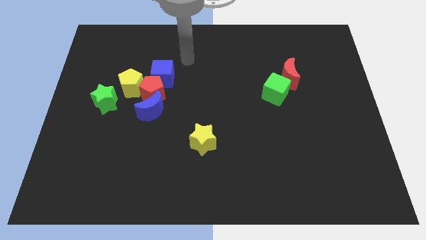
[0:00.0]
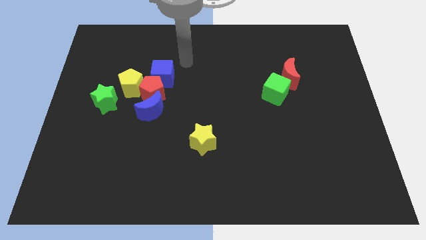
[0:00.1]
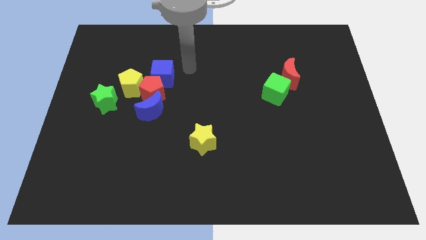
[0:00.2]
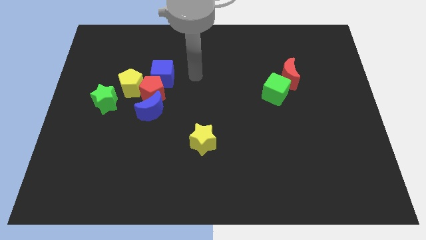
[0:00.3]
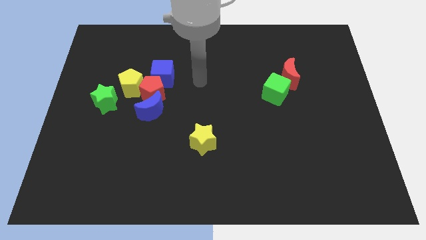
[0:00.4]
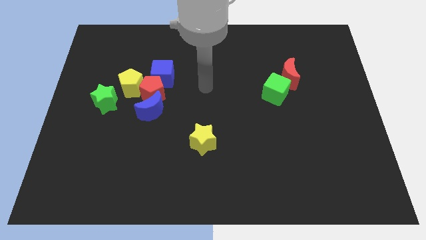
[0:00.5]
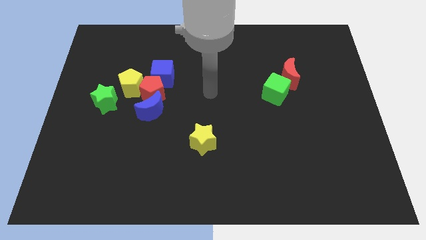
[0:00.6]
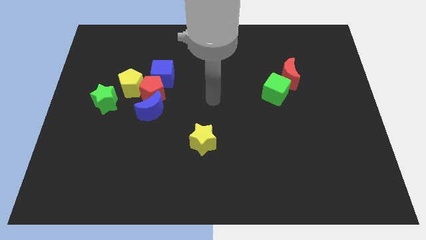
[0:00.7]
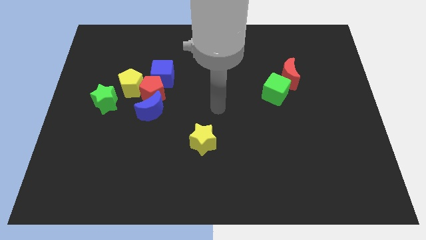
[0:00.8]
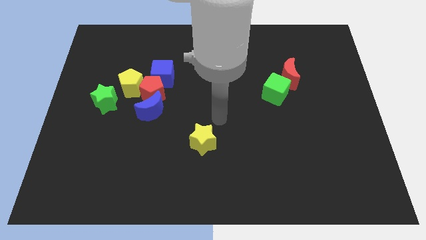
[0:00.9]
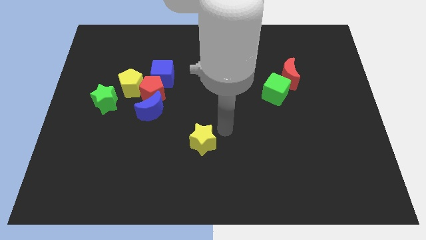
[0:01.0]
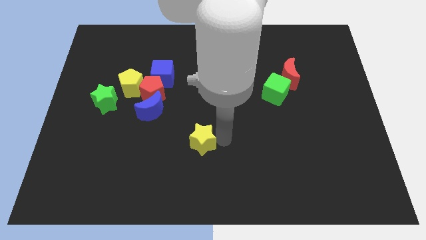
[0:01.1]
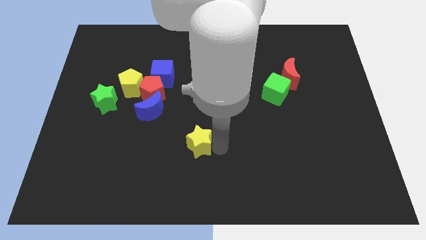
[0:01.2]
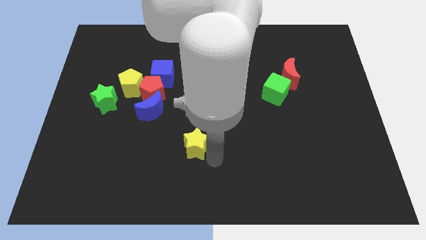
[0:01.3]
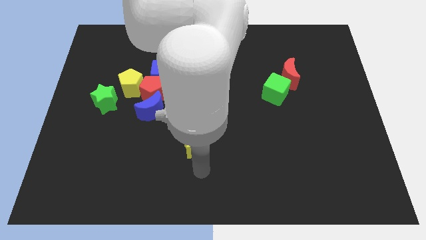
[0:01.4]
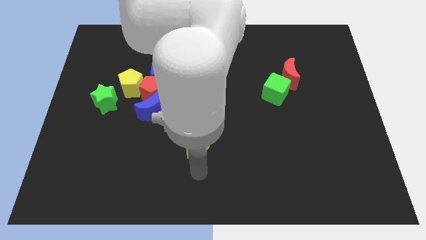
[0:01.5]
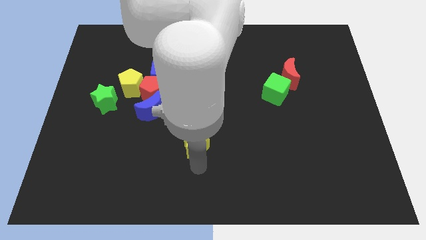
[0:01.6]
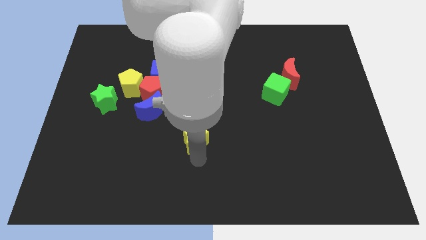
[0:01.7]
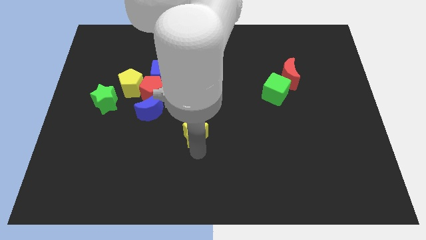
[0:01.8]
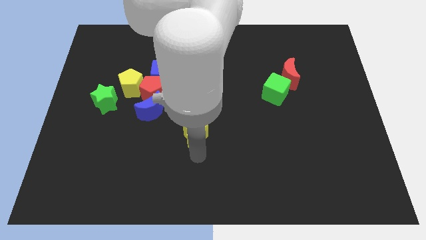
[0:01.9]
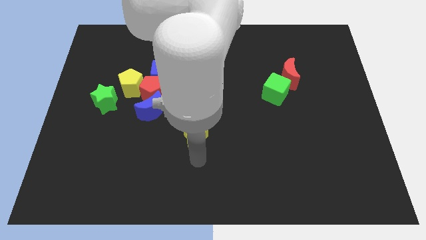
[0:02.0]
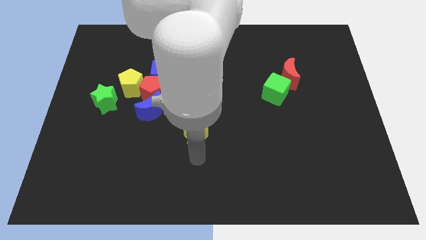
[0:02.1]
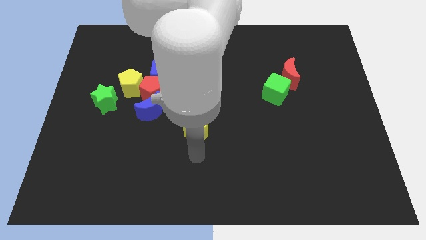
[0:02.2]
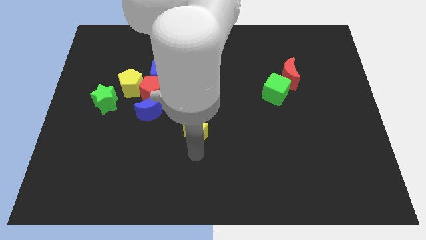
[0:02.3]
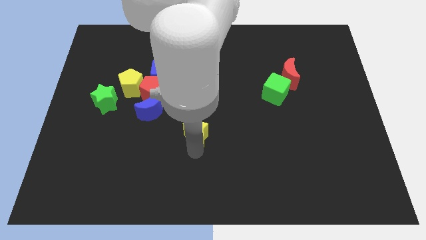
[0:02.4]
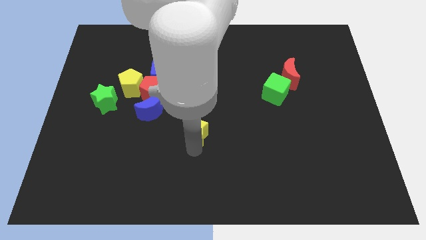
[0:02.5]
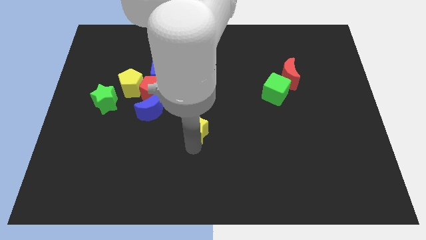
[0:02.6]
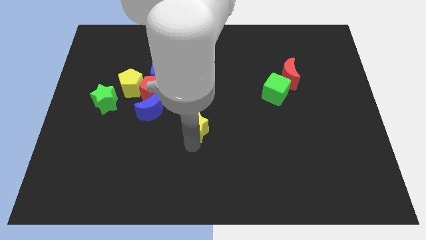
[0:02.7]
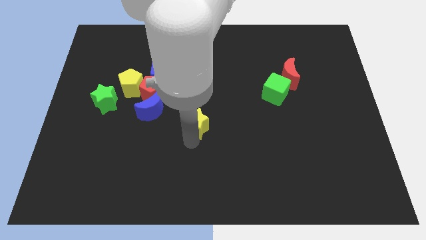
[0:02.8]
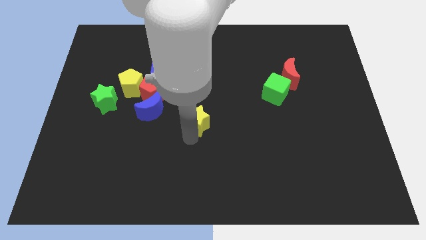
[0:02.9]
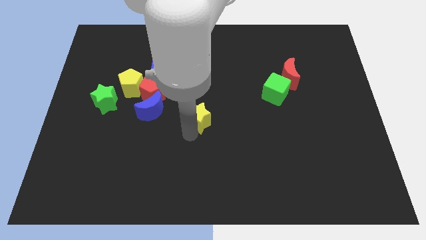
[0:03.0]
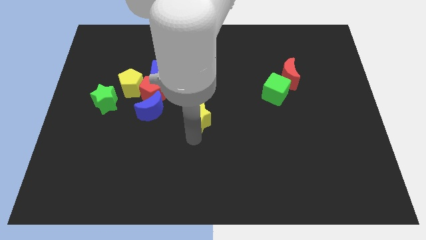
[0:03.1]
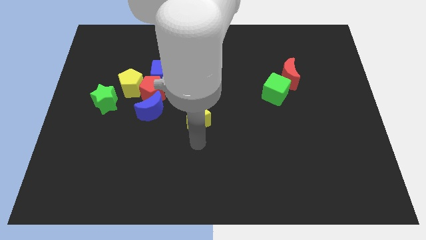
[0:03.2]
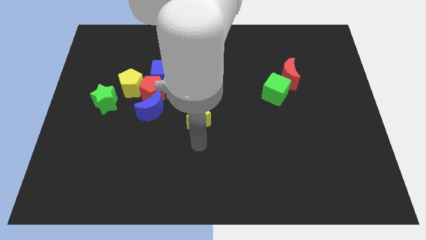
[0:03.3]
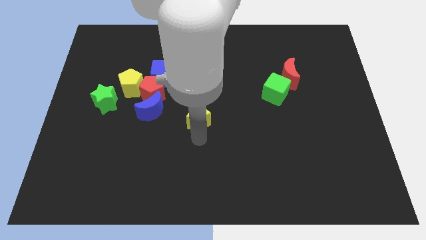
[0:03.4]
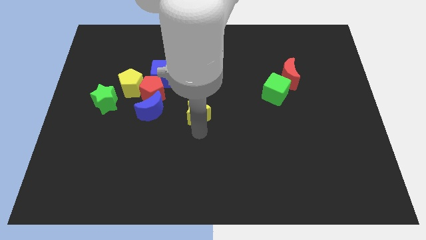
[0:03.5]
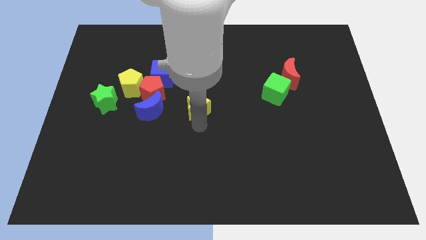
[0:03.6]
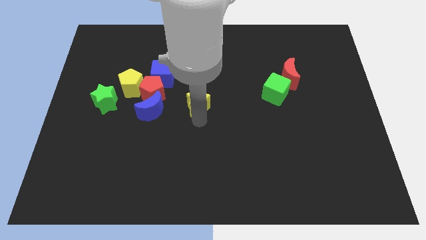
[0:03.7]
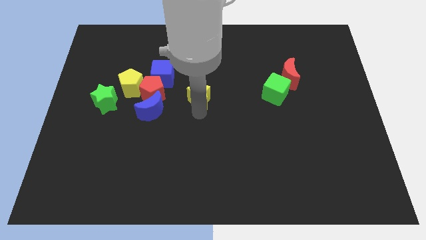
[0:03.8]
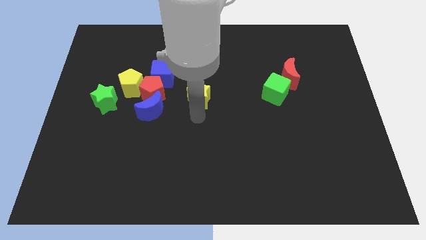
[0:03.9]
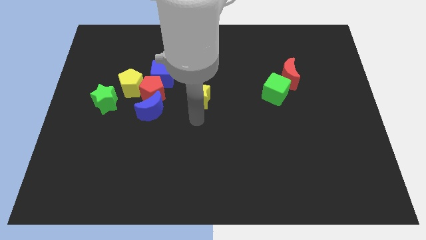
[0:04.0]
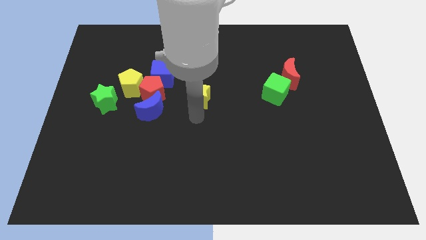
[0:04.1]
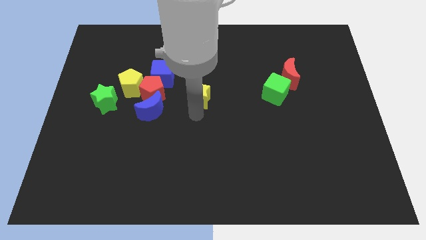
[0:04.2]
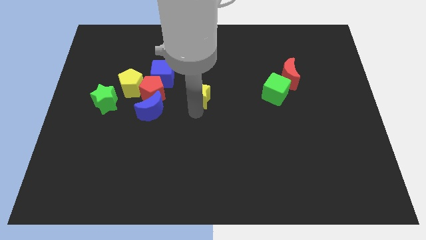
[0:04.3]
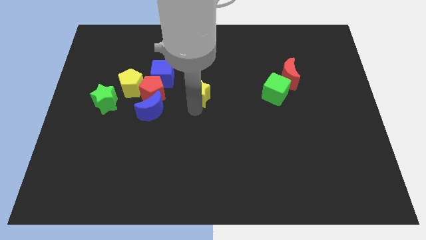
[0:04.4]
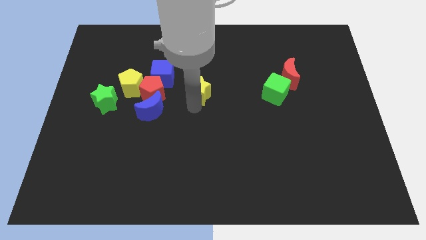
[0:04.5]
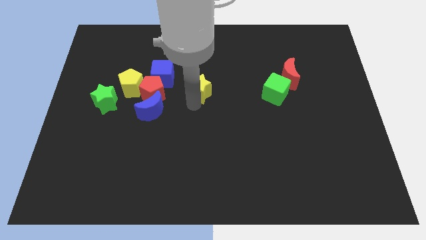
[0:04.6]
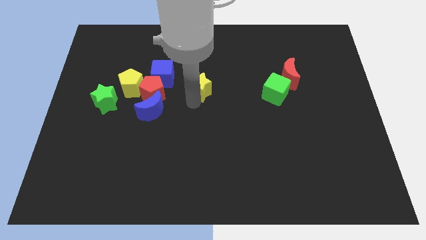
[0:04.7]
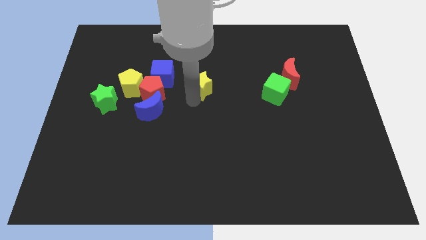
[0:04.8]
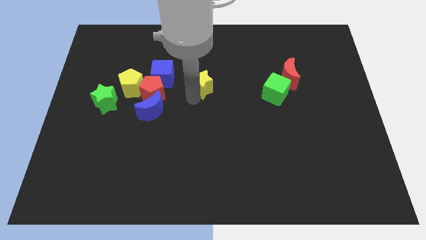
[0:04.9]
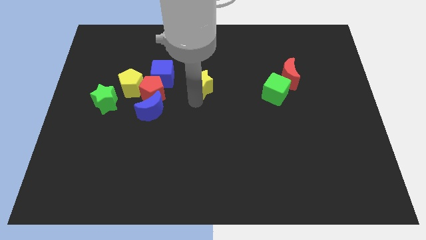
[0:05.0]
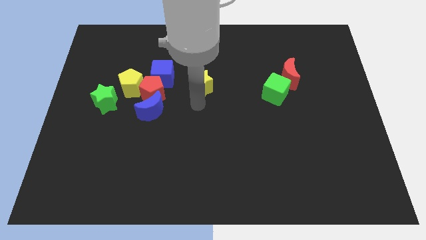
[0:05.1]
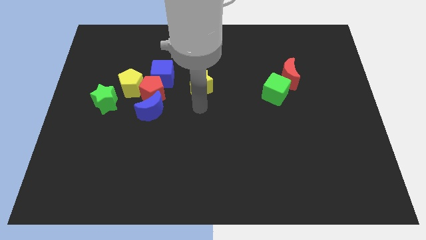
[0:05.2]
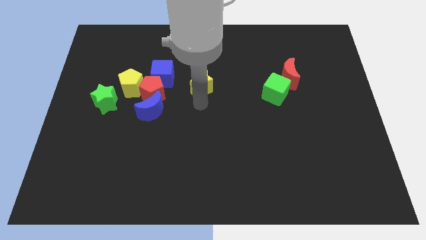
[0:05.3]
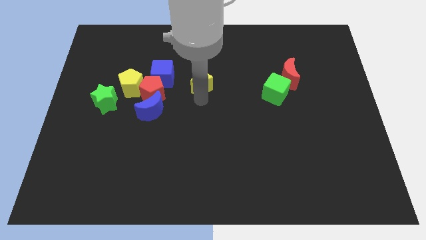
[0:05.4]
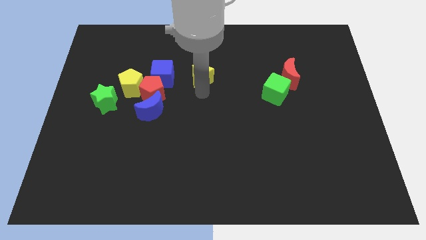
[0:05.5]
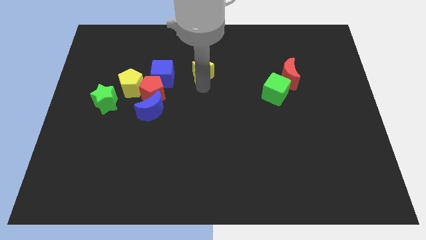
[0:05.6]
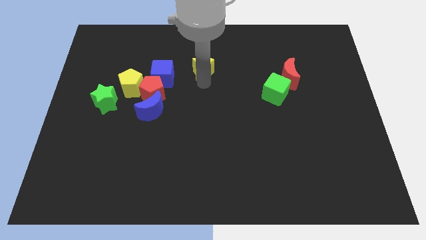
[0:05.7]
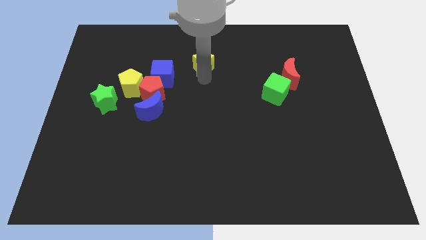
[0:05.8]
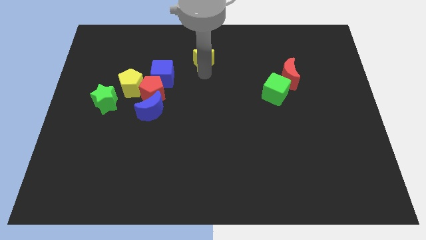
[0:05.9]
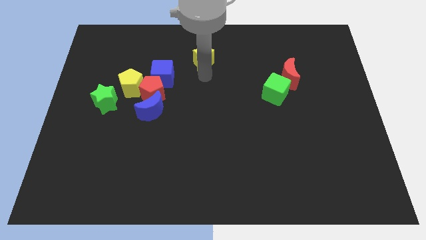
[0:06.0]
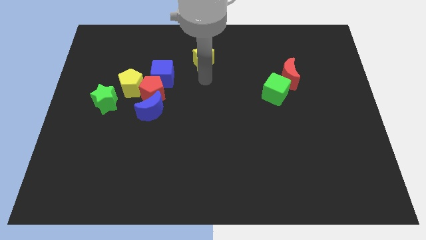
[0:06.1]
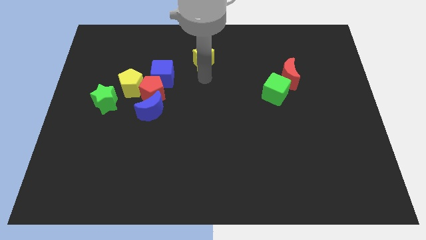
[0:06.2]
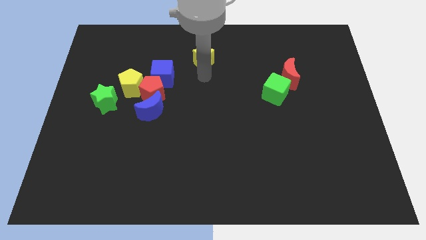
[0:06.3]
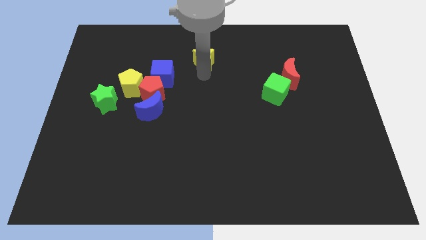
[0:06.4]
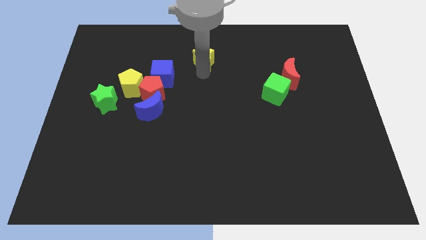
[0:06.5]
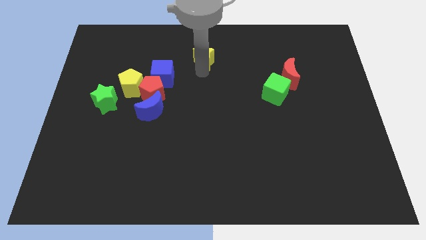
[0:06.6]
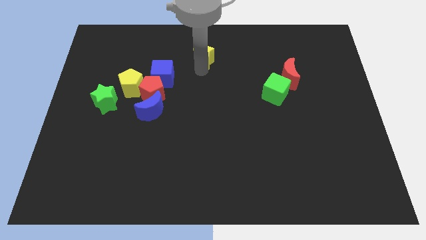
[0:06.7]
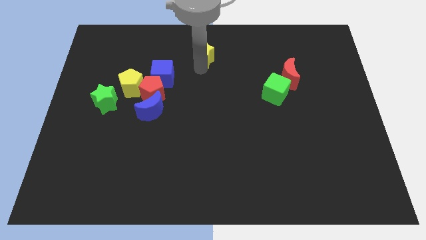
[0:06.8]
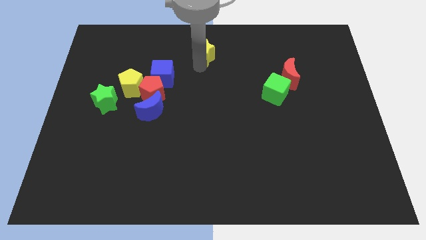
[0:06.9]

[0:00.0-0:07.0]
slide the yellow star to the top

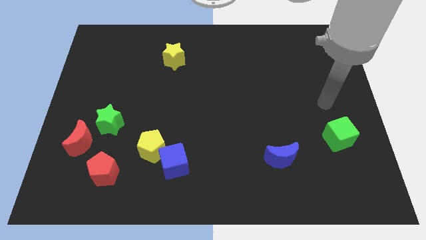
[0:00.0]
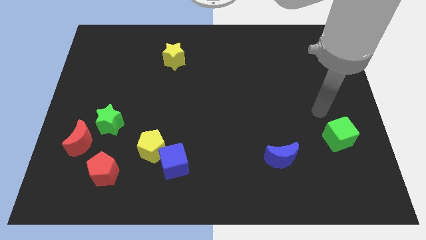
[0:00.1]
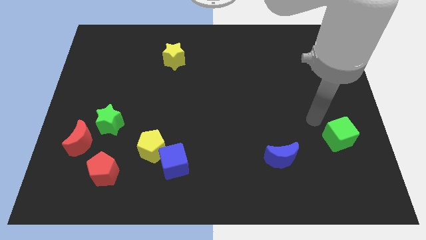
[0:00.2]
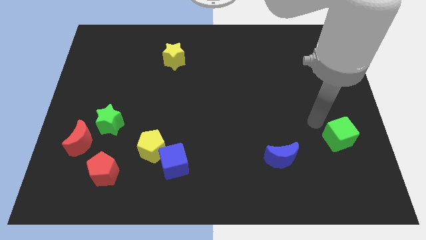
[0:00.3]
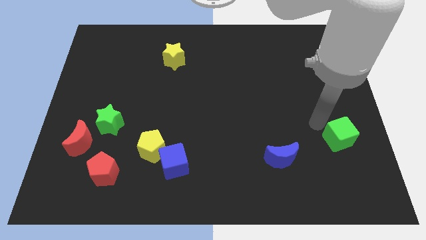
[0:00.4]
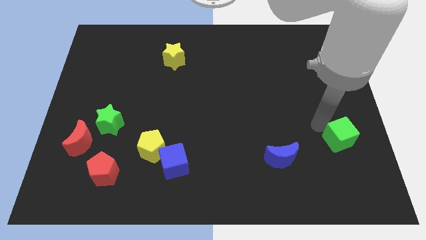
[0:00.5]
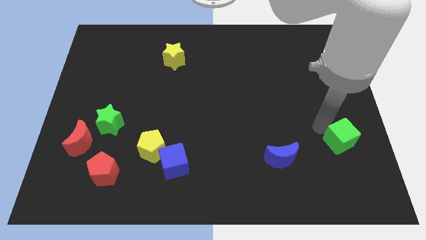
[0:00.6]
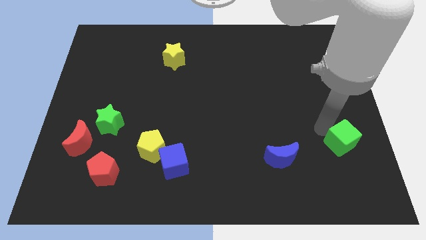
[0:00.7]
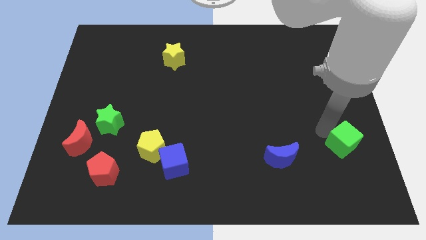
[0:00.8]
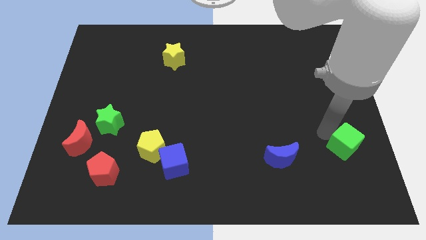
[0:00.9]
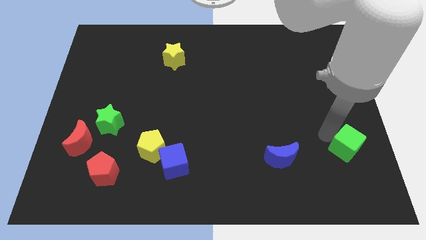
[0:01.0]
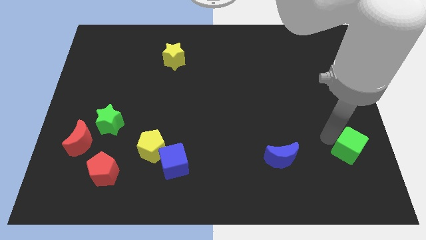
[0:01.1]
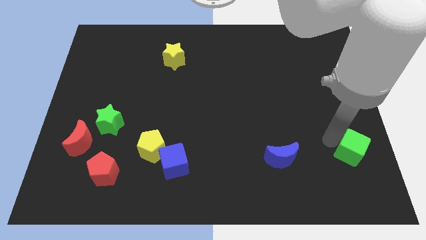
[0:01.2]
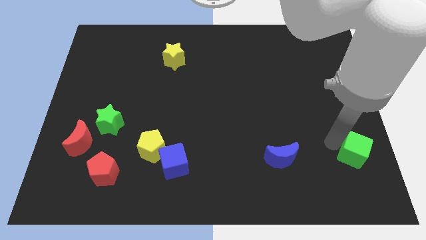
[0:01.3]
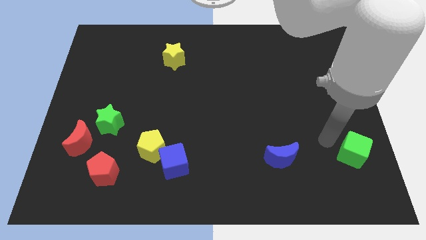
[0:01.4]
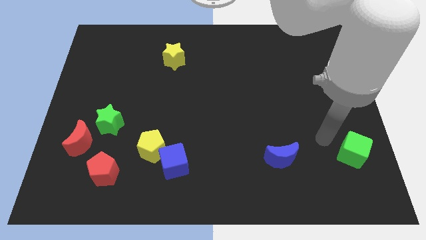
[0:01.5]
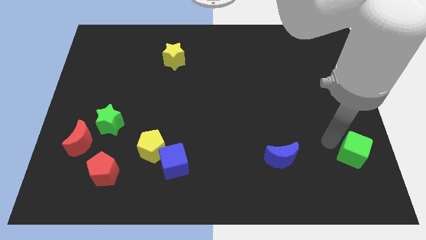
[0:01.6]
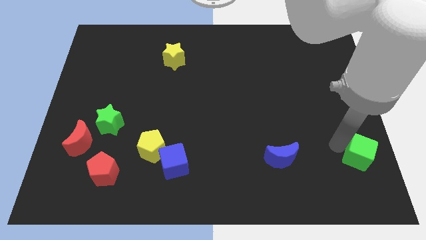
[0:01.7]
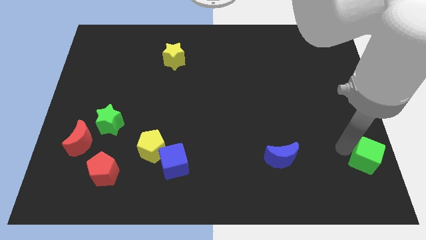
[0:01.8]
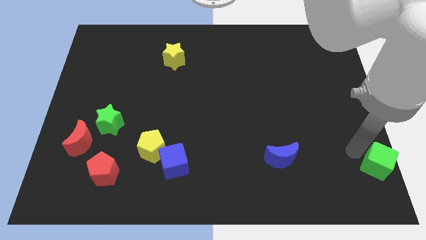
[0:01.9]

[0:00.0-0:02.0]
push the green cube to the bottom right
